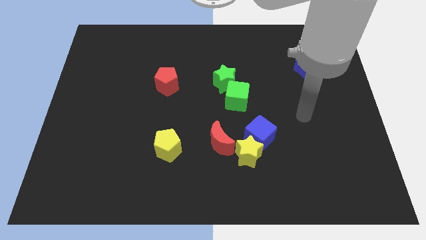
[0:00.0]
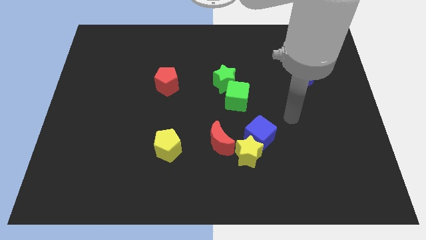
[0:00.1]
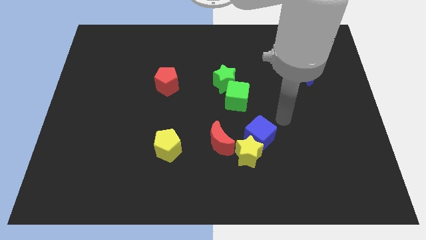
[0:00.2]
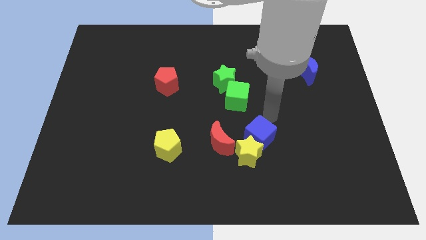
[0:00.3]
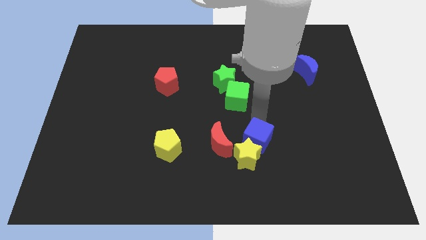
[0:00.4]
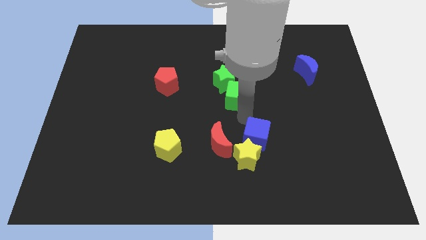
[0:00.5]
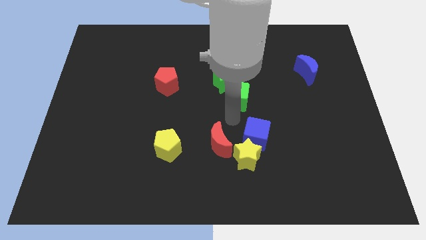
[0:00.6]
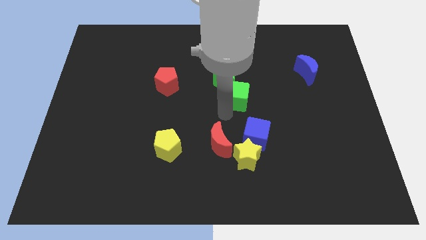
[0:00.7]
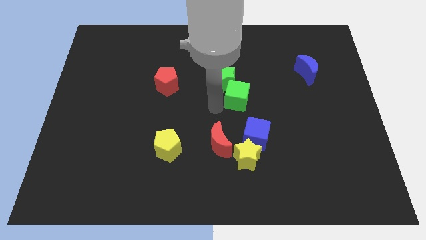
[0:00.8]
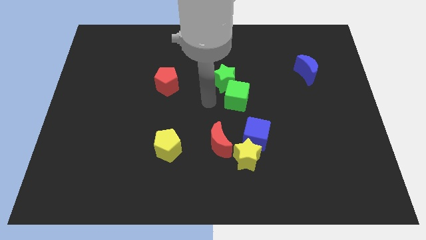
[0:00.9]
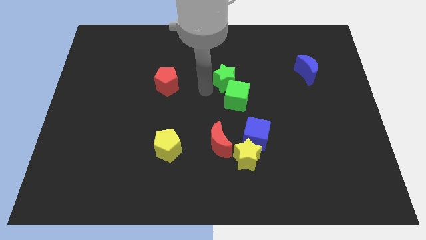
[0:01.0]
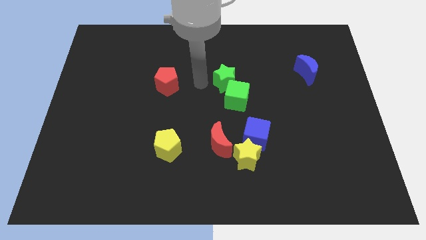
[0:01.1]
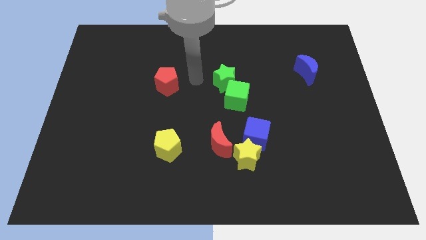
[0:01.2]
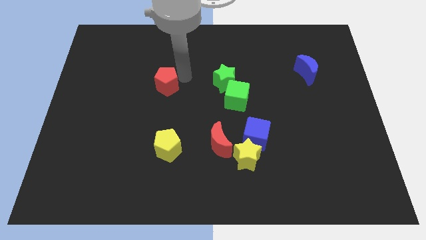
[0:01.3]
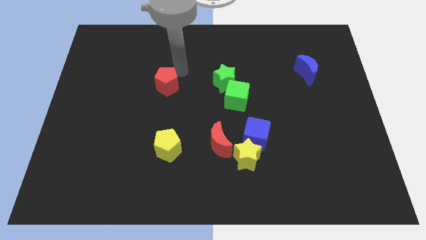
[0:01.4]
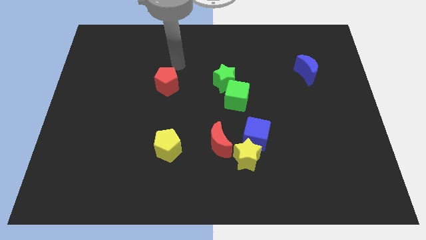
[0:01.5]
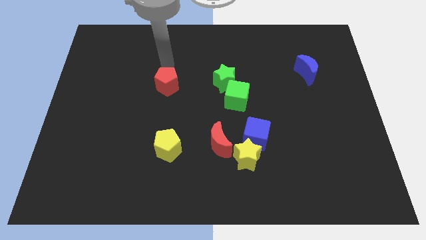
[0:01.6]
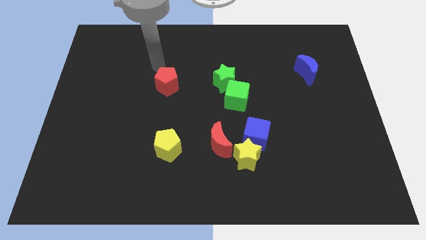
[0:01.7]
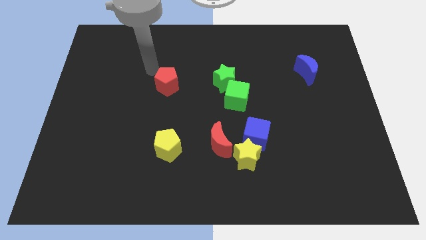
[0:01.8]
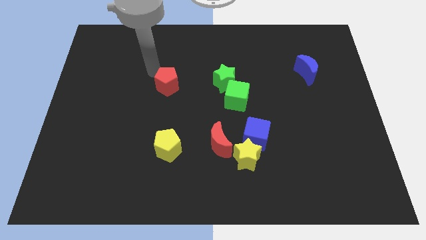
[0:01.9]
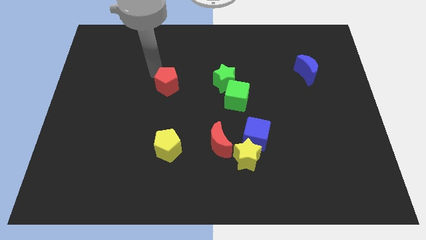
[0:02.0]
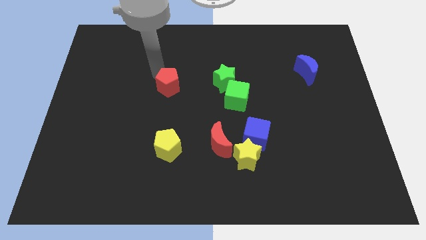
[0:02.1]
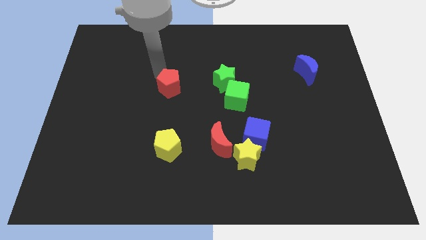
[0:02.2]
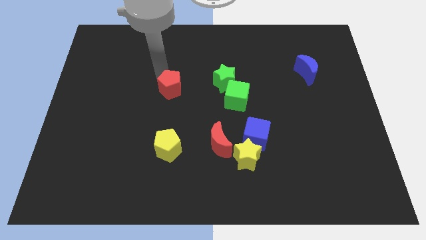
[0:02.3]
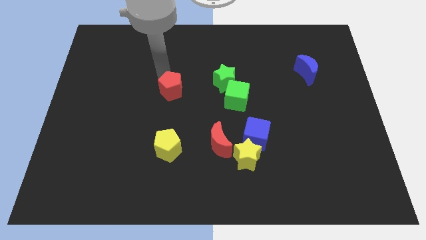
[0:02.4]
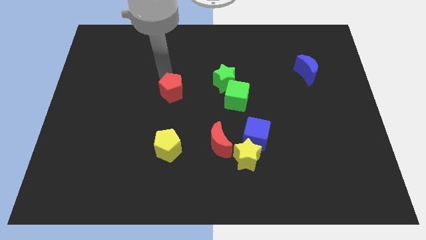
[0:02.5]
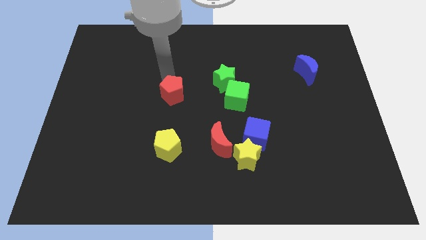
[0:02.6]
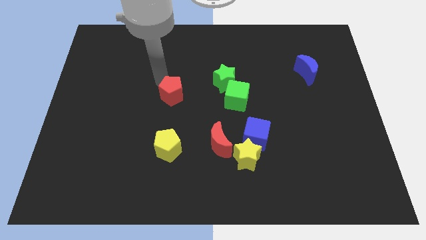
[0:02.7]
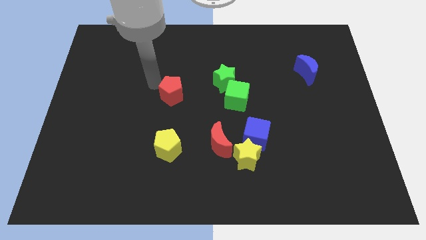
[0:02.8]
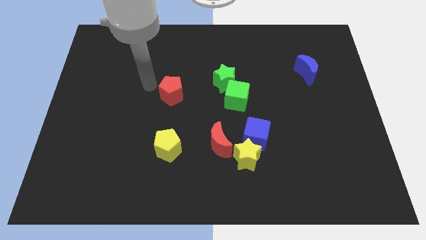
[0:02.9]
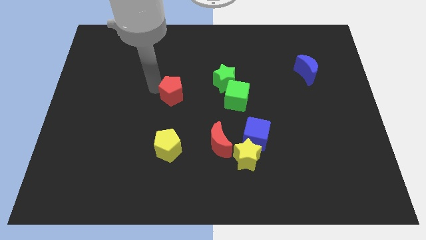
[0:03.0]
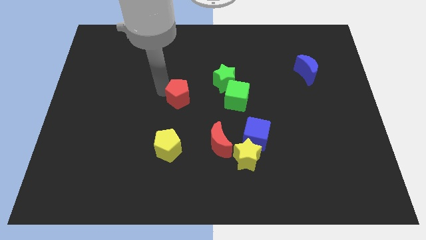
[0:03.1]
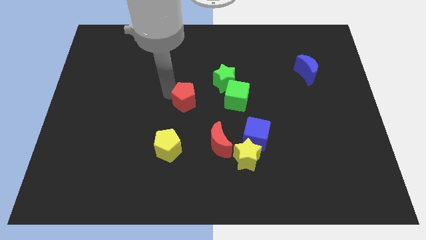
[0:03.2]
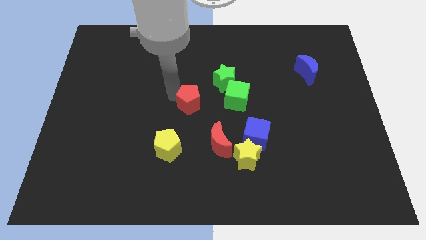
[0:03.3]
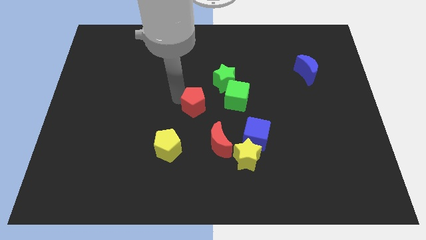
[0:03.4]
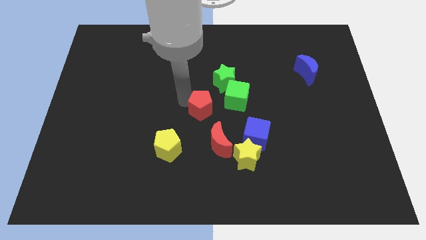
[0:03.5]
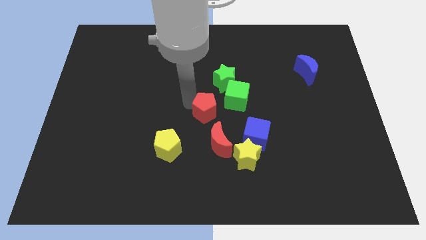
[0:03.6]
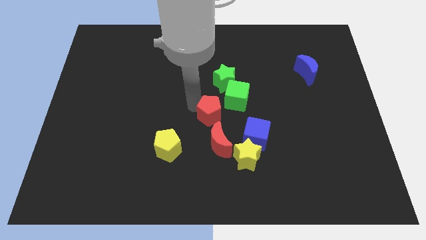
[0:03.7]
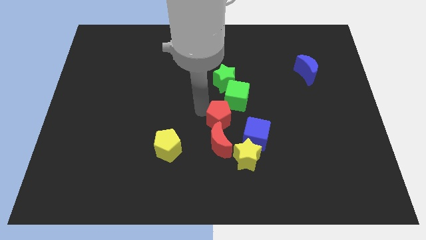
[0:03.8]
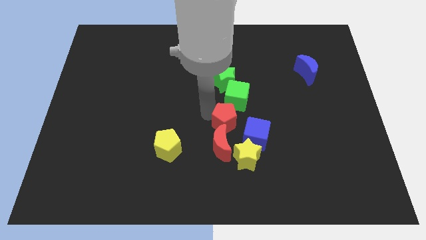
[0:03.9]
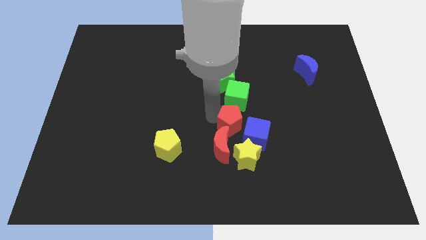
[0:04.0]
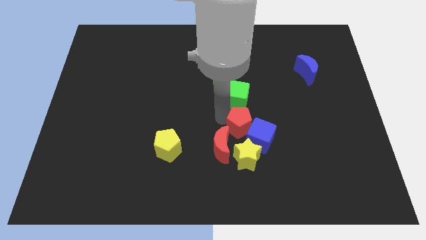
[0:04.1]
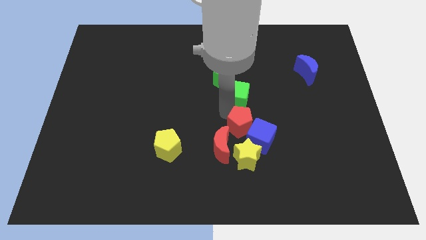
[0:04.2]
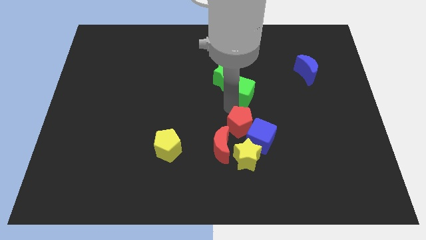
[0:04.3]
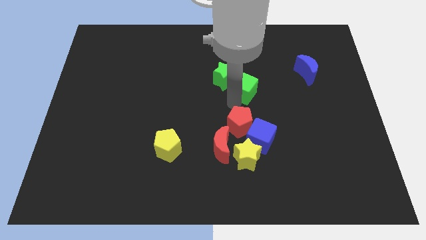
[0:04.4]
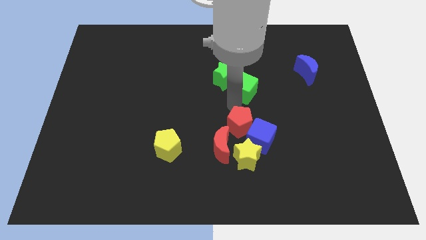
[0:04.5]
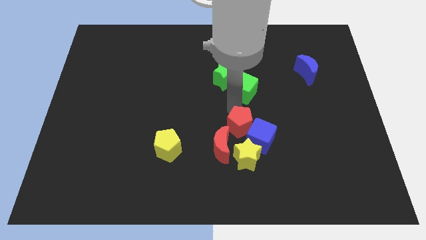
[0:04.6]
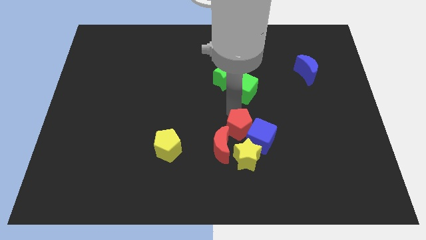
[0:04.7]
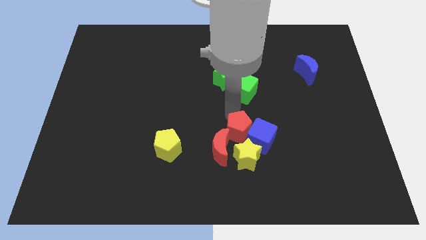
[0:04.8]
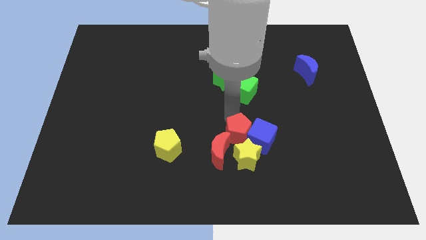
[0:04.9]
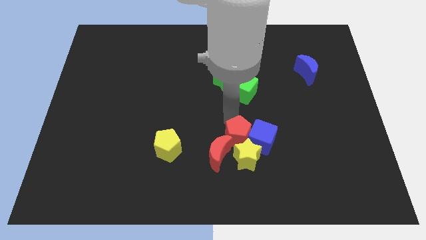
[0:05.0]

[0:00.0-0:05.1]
slide the red pentagon close to the yellow star

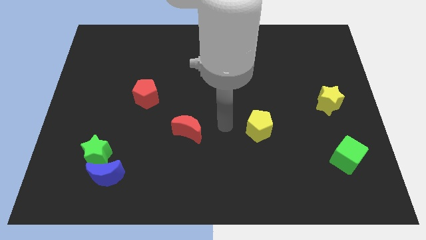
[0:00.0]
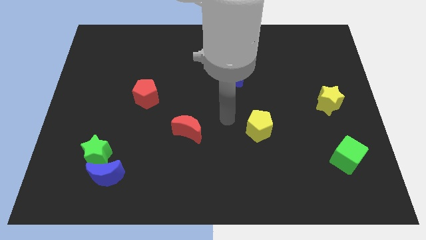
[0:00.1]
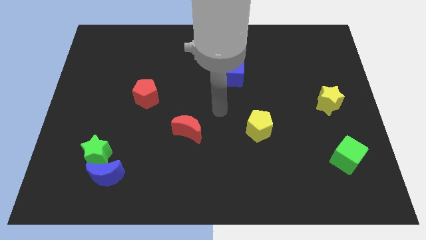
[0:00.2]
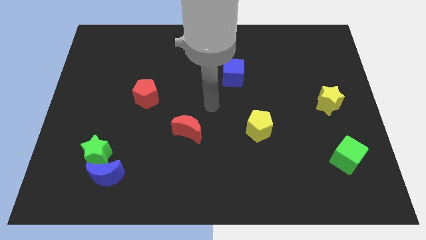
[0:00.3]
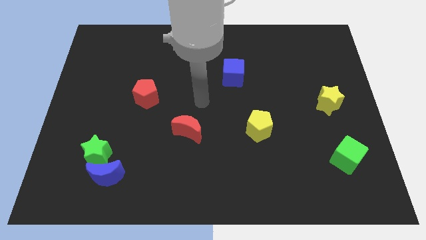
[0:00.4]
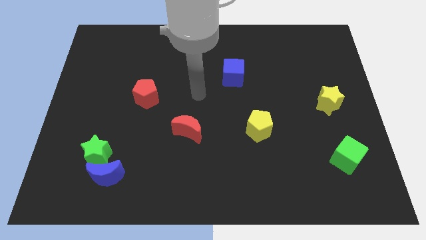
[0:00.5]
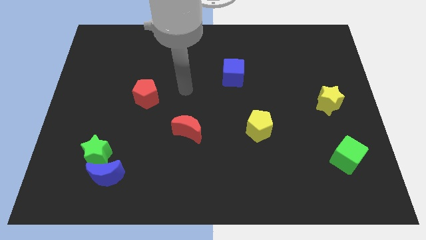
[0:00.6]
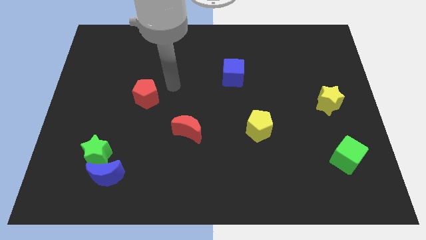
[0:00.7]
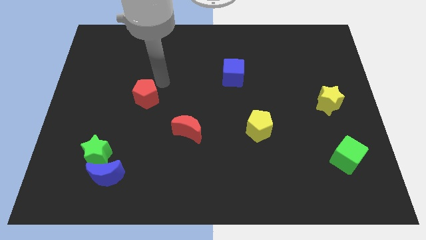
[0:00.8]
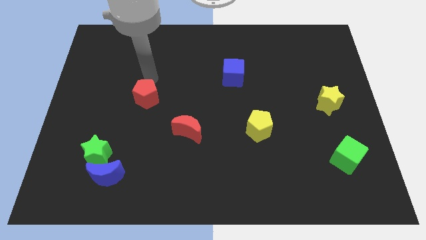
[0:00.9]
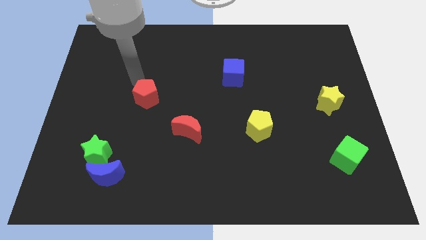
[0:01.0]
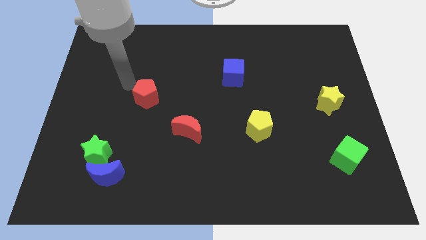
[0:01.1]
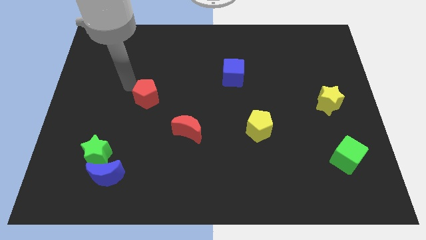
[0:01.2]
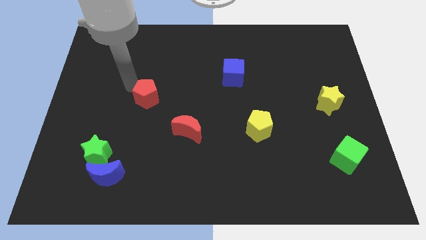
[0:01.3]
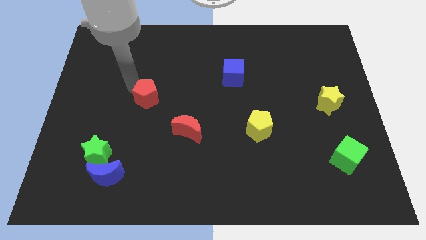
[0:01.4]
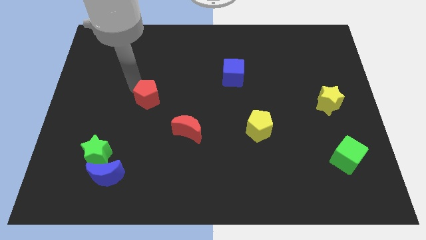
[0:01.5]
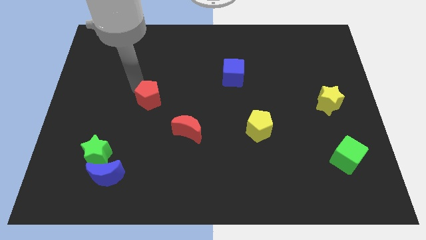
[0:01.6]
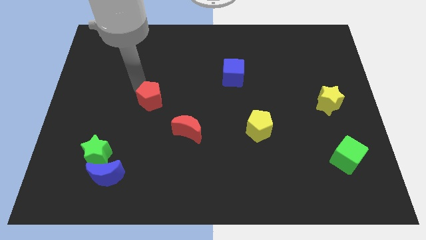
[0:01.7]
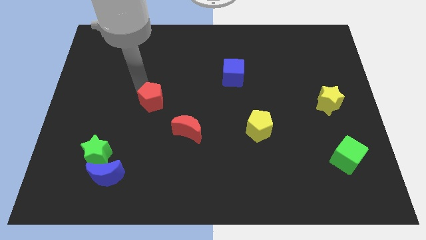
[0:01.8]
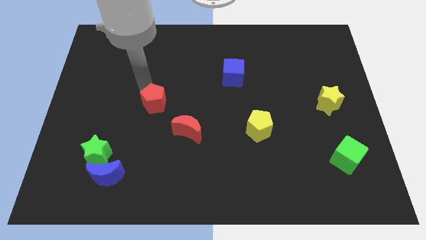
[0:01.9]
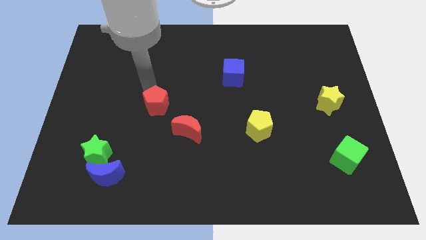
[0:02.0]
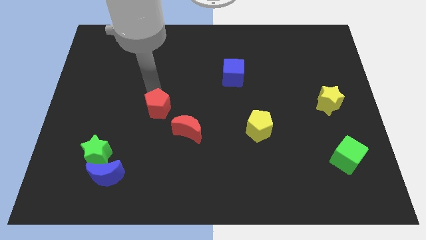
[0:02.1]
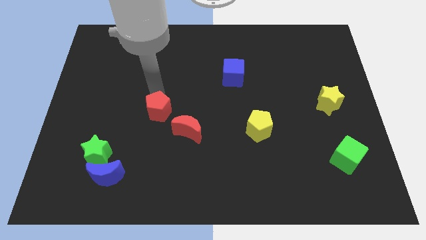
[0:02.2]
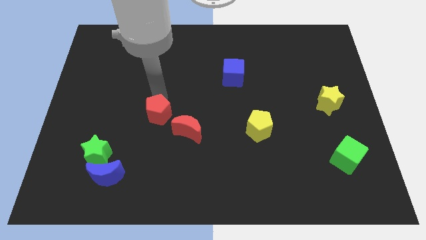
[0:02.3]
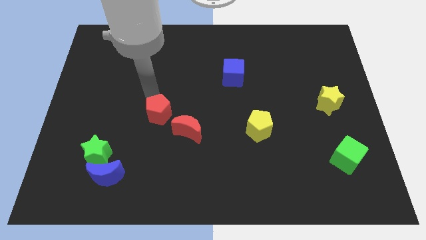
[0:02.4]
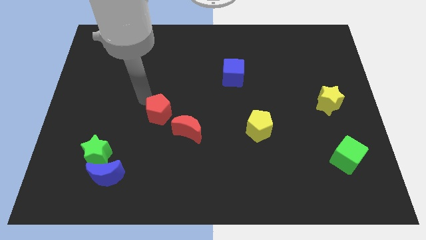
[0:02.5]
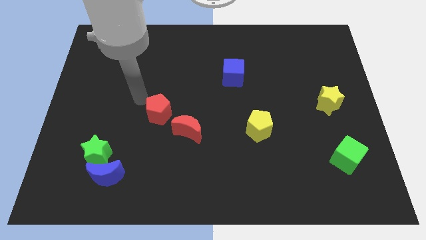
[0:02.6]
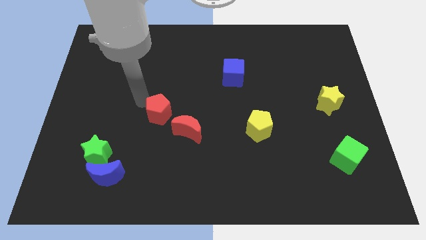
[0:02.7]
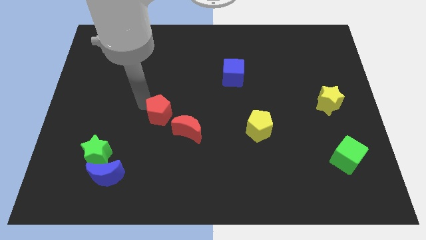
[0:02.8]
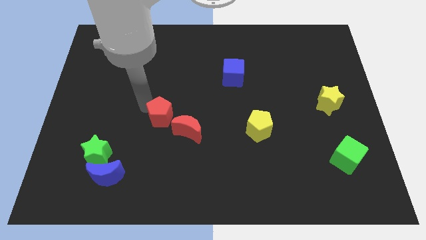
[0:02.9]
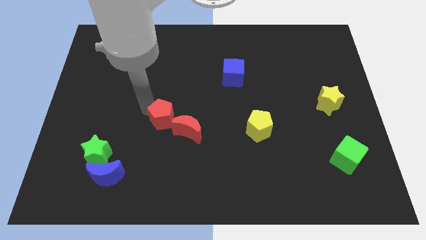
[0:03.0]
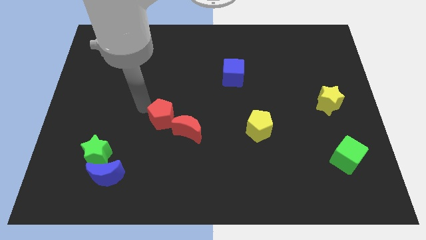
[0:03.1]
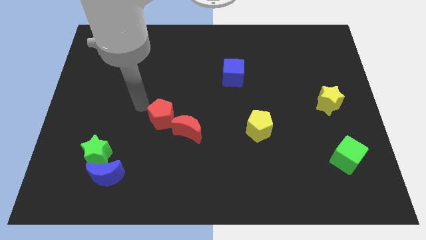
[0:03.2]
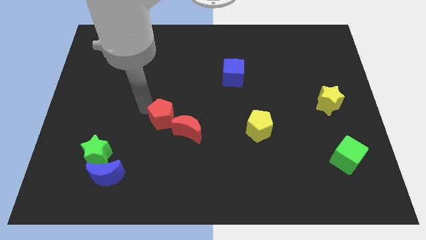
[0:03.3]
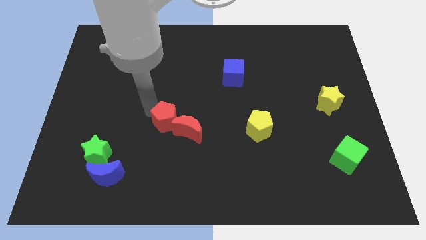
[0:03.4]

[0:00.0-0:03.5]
slide the red pentagon next to the red moon
